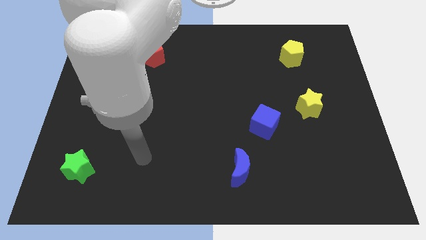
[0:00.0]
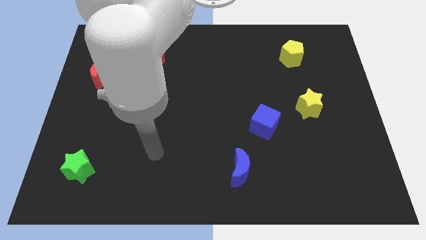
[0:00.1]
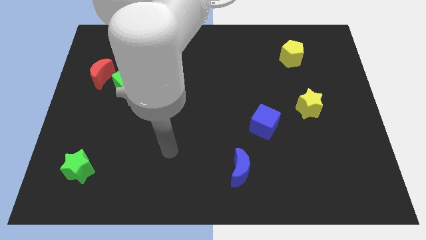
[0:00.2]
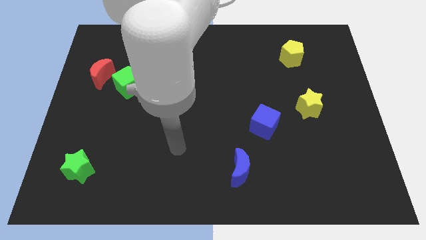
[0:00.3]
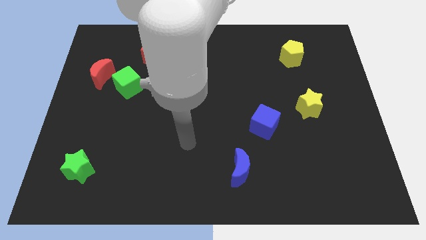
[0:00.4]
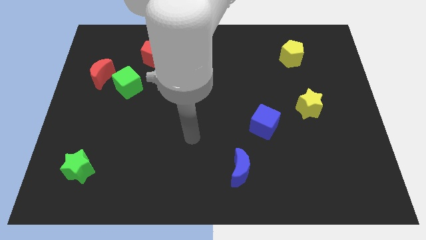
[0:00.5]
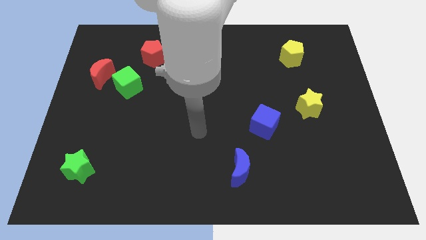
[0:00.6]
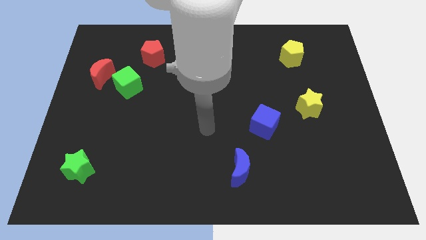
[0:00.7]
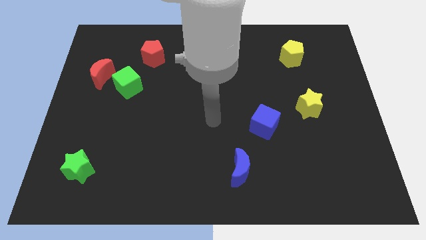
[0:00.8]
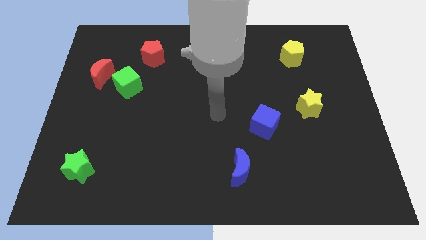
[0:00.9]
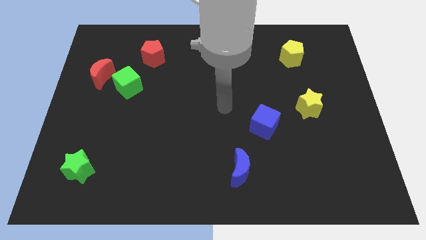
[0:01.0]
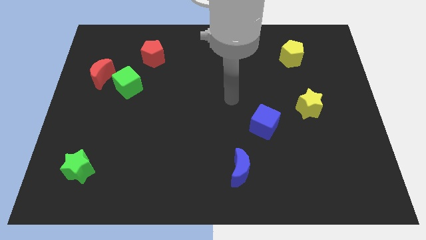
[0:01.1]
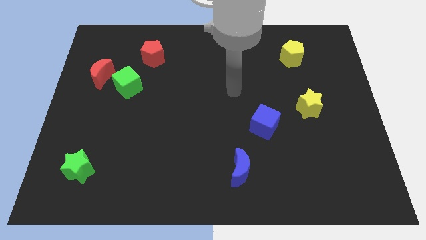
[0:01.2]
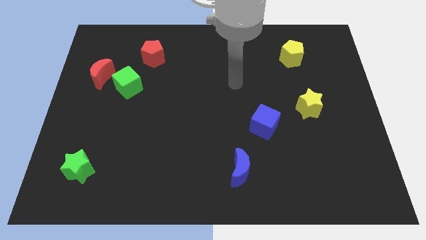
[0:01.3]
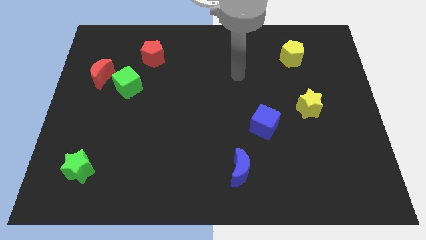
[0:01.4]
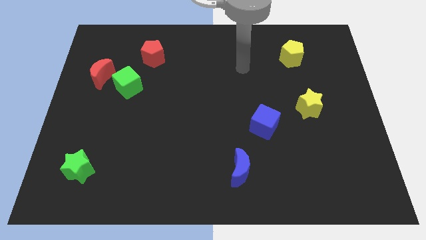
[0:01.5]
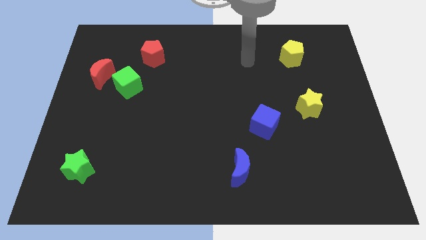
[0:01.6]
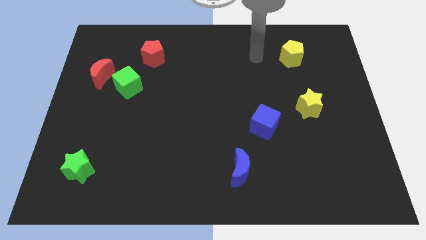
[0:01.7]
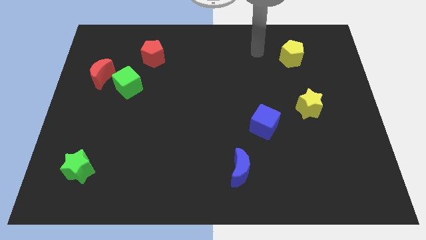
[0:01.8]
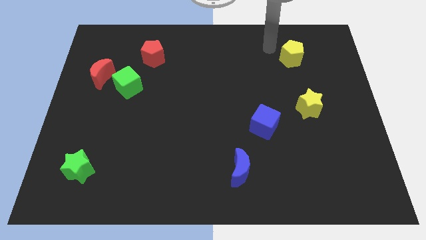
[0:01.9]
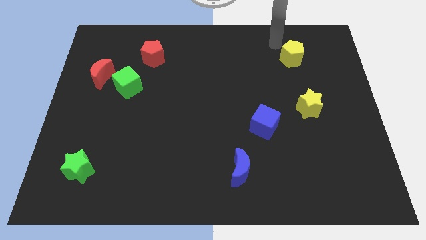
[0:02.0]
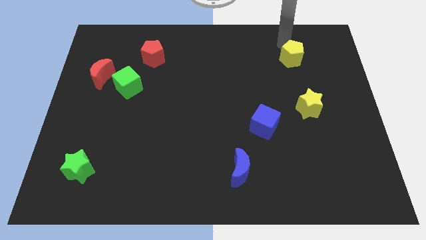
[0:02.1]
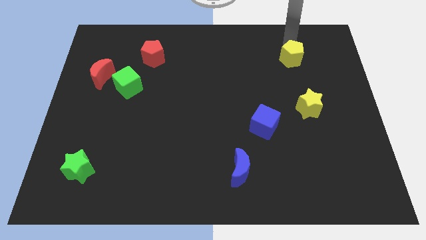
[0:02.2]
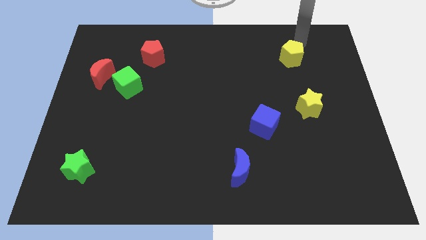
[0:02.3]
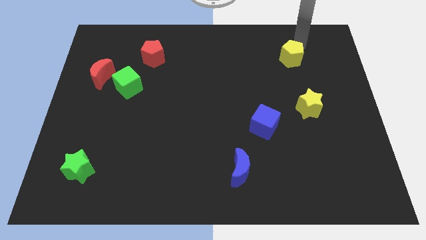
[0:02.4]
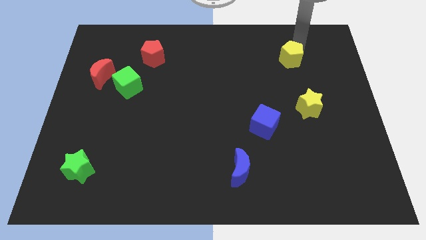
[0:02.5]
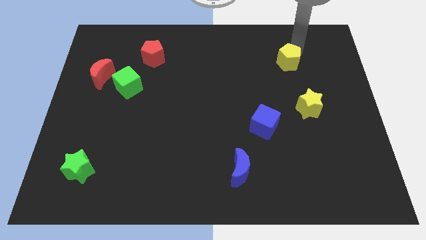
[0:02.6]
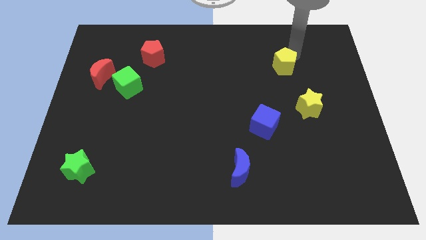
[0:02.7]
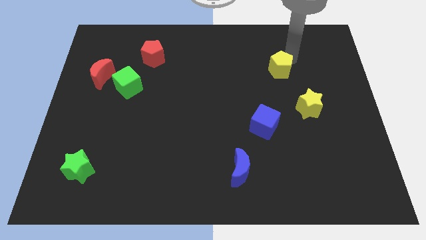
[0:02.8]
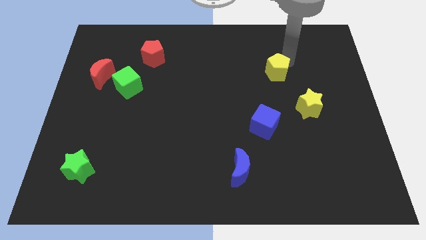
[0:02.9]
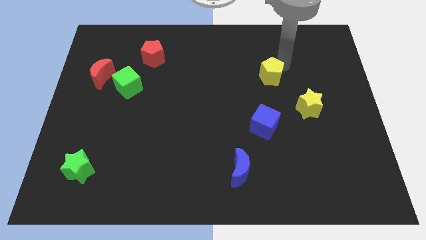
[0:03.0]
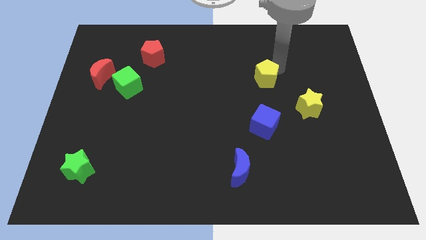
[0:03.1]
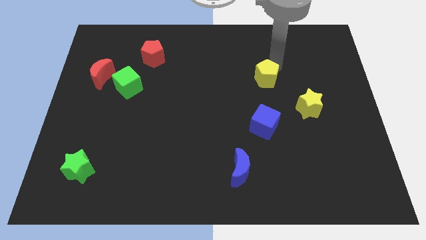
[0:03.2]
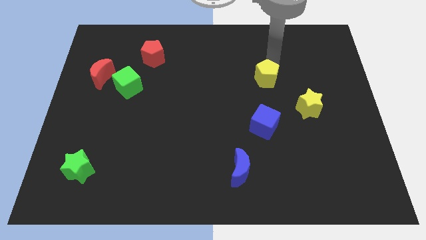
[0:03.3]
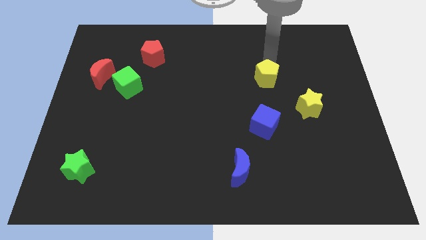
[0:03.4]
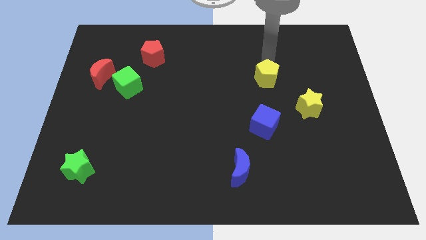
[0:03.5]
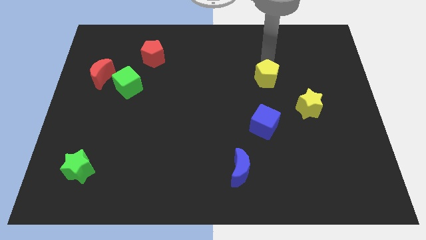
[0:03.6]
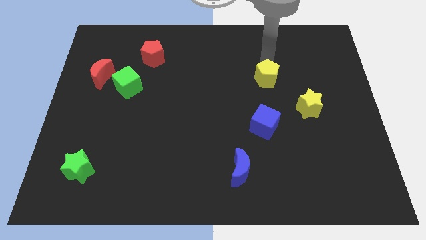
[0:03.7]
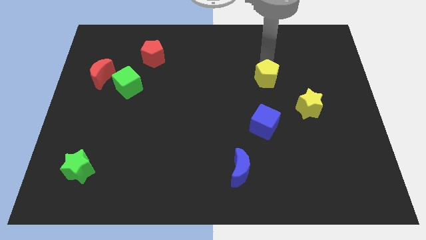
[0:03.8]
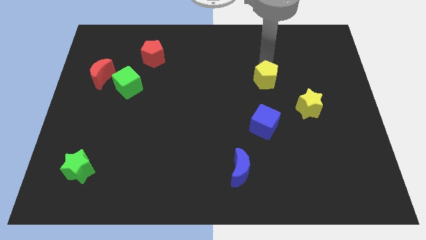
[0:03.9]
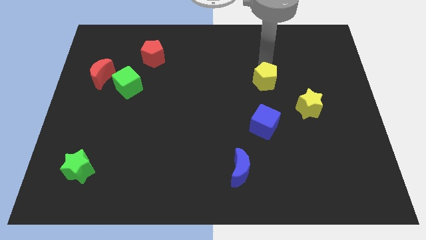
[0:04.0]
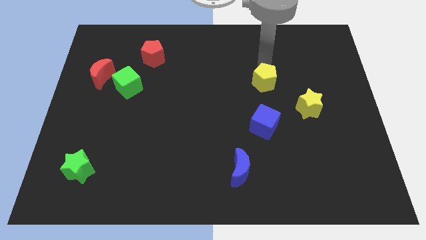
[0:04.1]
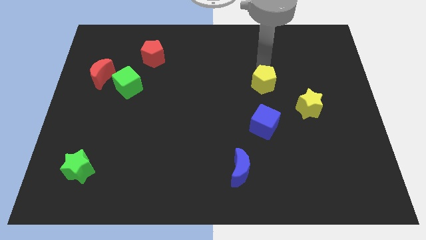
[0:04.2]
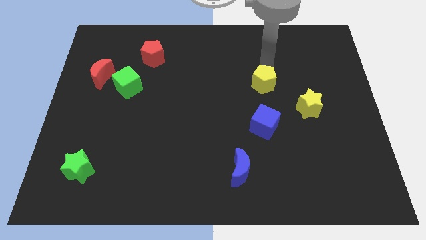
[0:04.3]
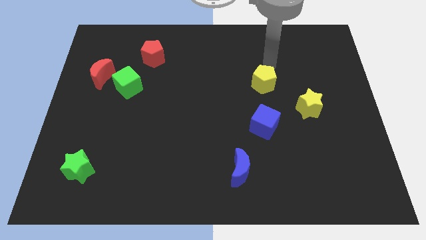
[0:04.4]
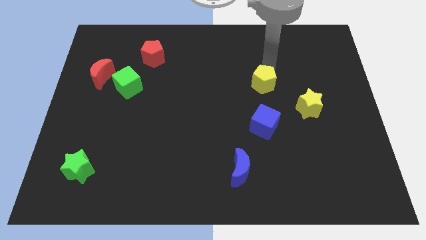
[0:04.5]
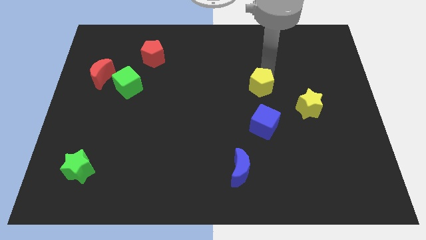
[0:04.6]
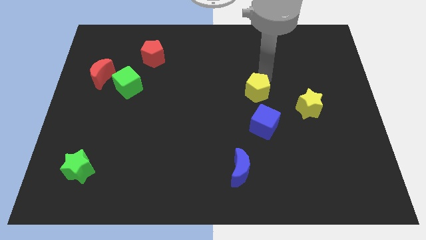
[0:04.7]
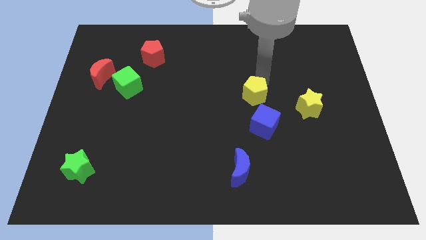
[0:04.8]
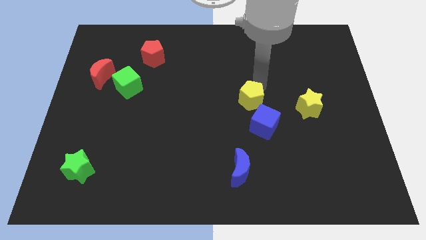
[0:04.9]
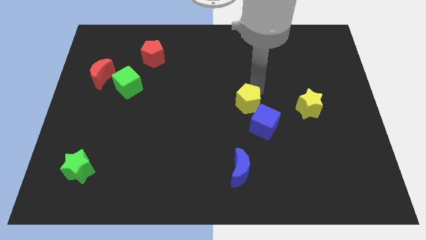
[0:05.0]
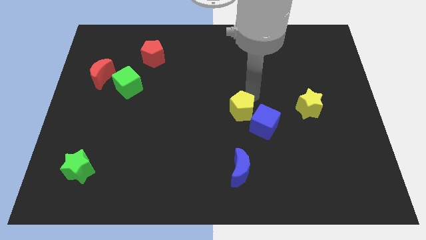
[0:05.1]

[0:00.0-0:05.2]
move the yellow pentagon to the top of the blue moon

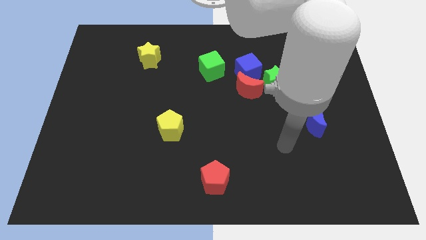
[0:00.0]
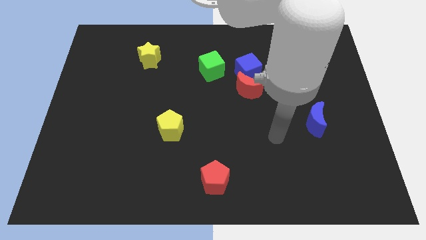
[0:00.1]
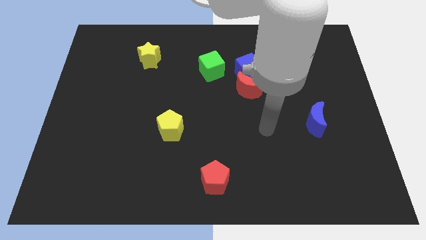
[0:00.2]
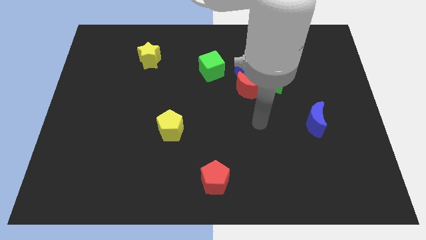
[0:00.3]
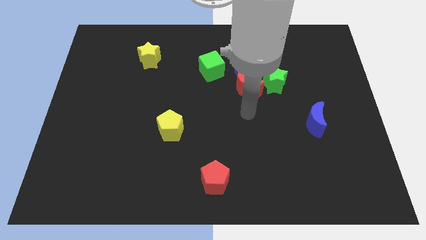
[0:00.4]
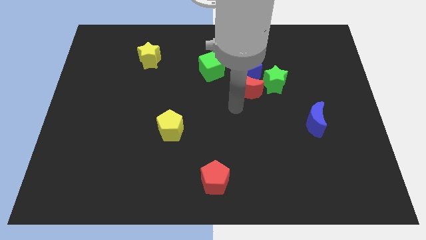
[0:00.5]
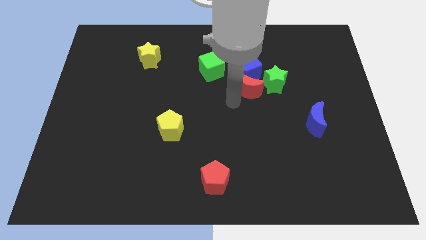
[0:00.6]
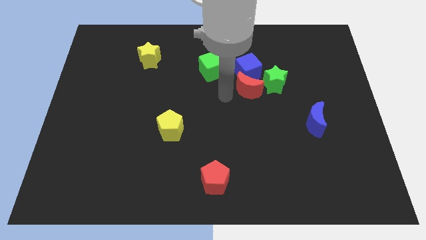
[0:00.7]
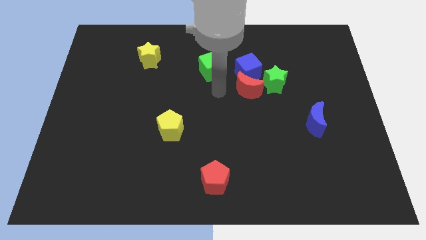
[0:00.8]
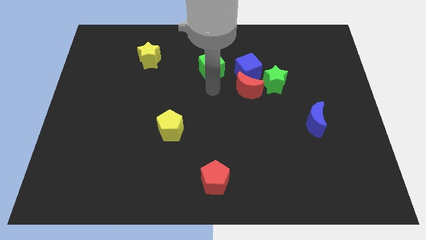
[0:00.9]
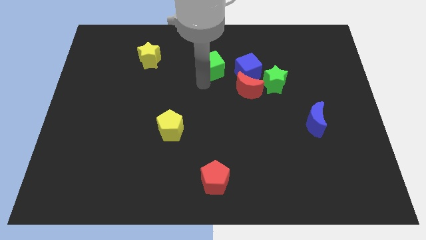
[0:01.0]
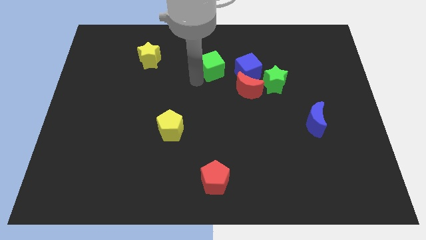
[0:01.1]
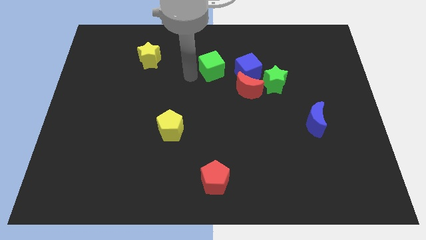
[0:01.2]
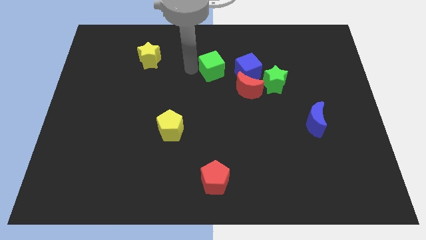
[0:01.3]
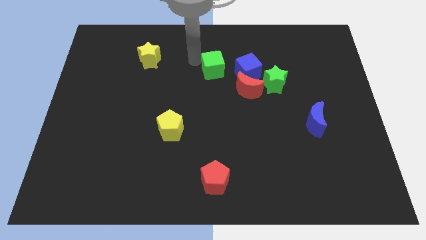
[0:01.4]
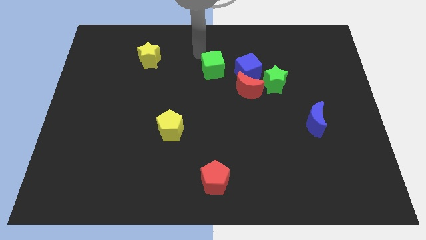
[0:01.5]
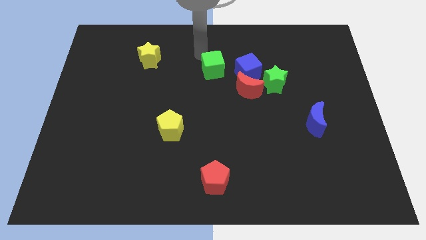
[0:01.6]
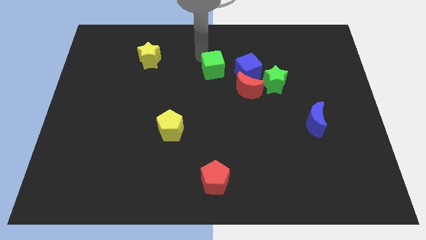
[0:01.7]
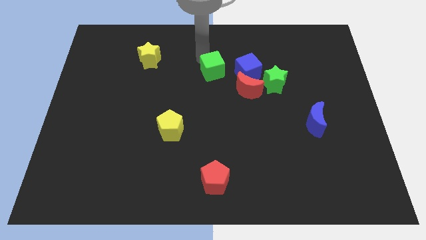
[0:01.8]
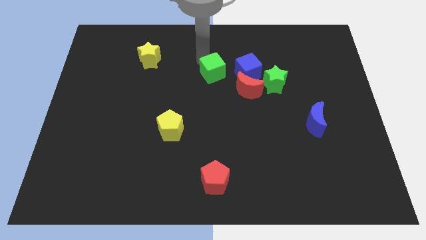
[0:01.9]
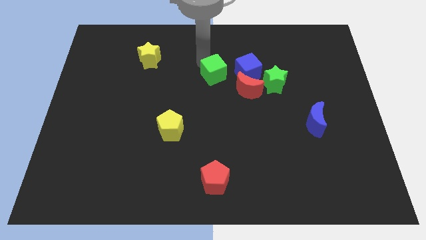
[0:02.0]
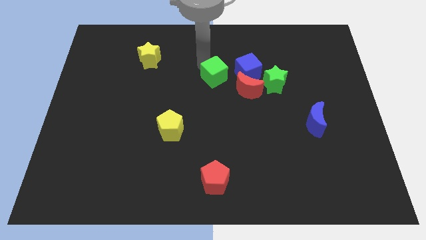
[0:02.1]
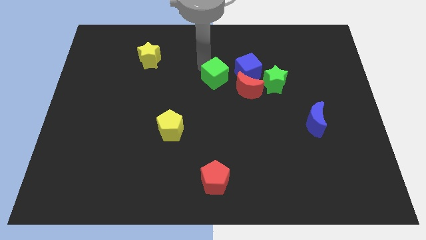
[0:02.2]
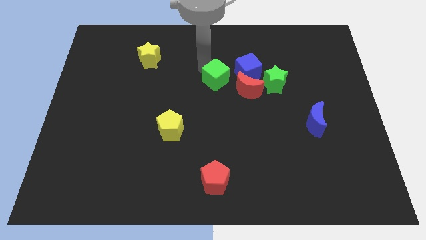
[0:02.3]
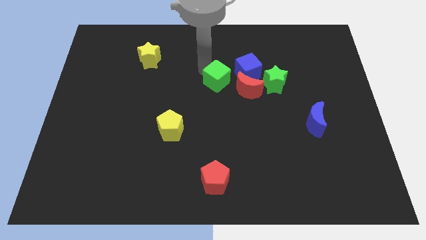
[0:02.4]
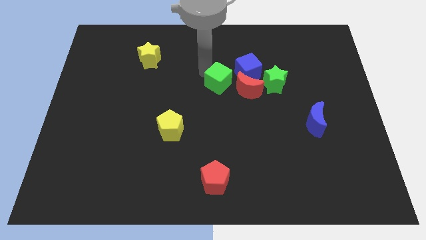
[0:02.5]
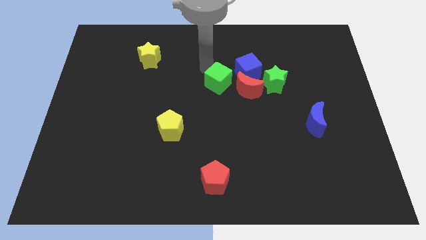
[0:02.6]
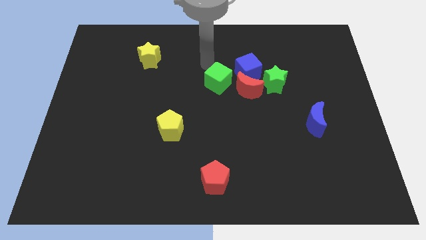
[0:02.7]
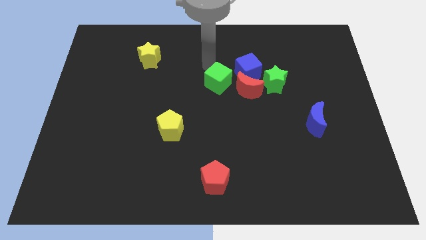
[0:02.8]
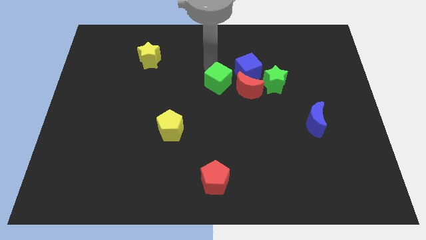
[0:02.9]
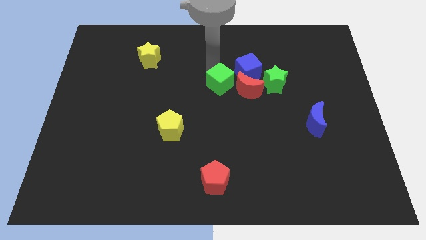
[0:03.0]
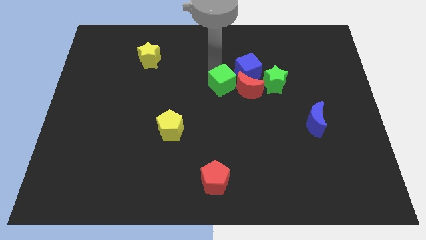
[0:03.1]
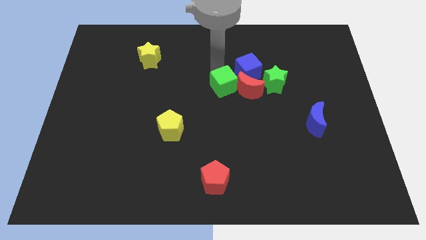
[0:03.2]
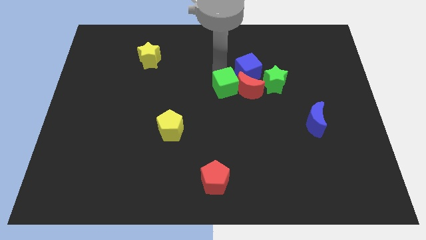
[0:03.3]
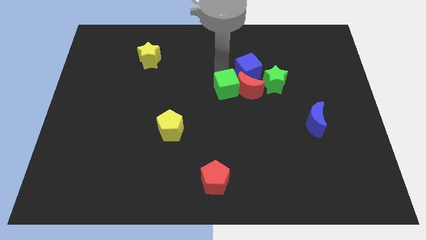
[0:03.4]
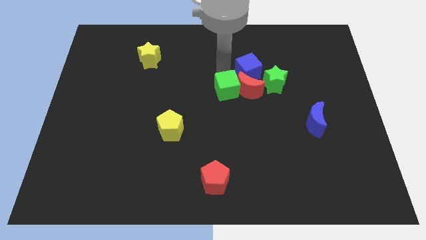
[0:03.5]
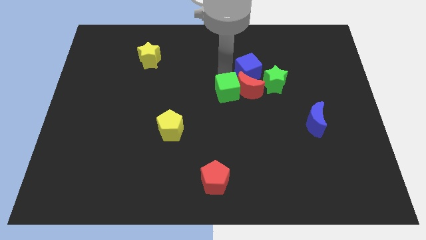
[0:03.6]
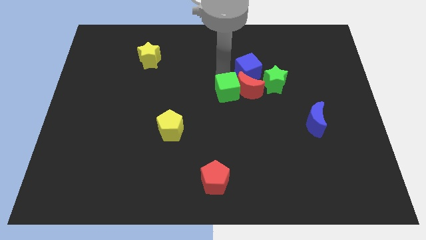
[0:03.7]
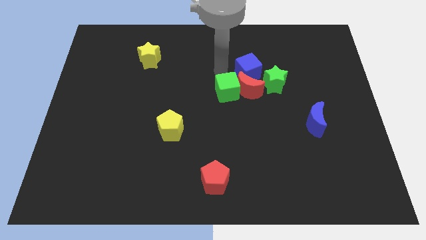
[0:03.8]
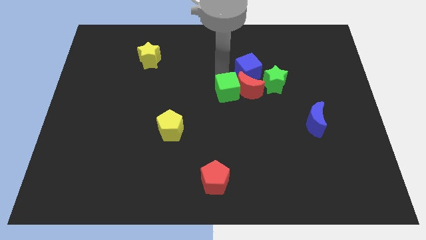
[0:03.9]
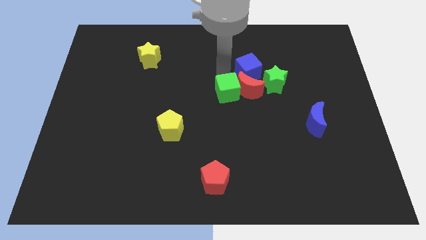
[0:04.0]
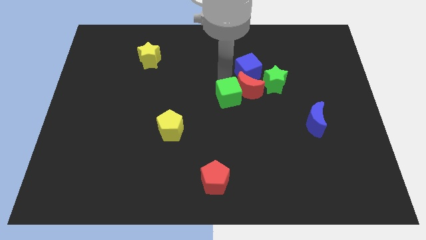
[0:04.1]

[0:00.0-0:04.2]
push the green cube below the blue cube
